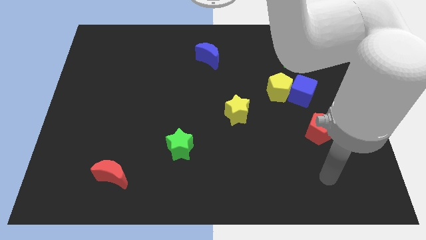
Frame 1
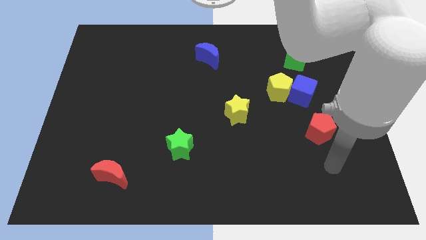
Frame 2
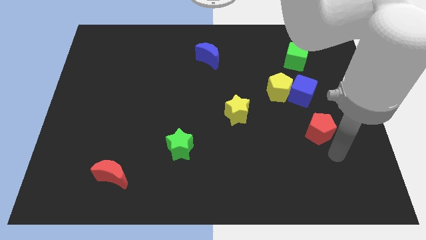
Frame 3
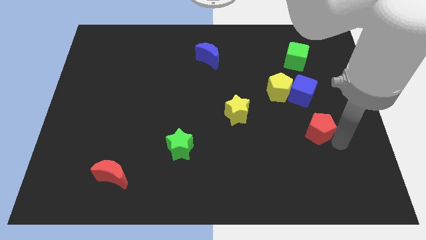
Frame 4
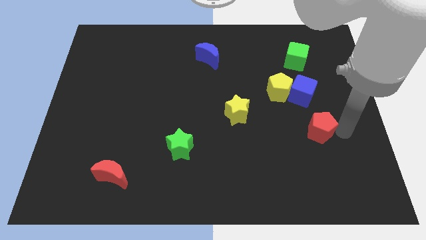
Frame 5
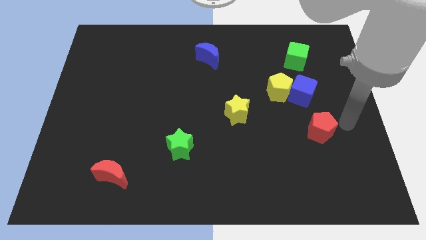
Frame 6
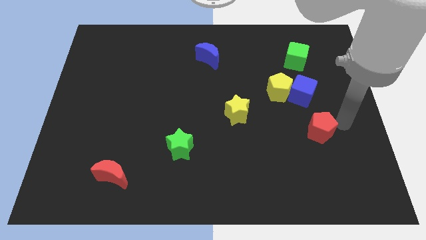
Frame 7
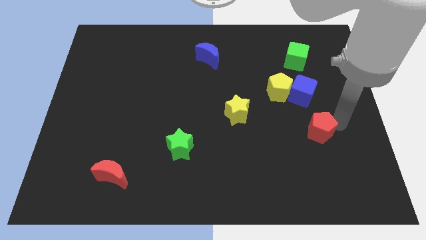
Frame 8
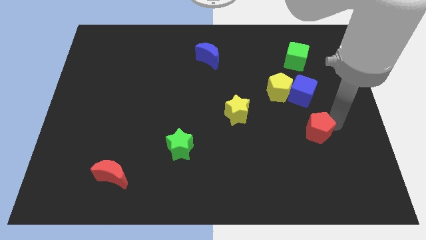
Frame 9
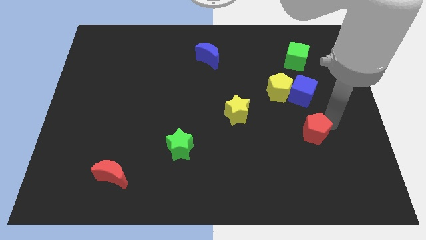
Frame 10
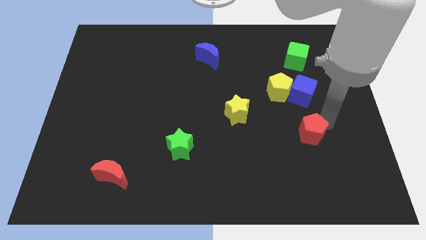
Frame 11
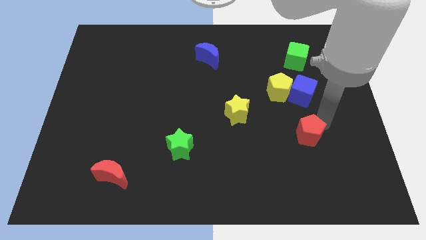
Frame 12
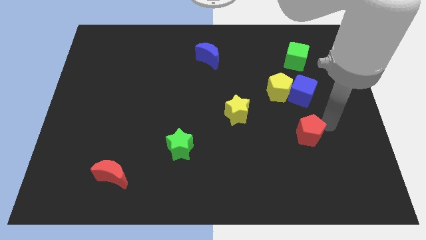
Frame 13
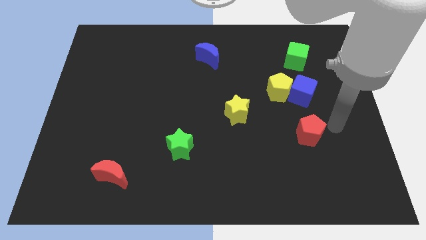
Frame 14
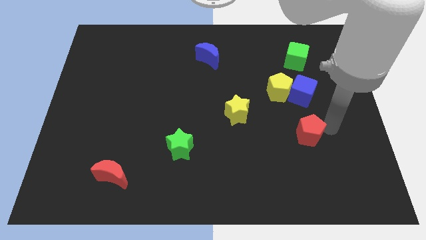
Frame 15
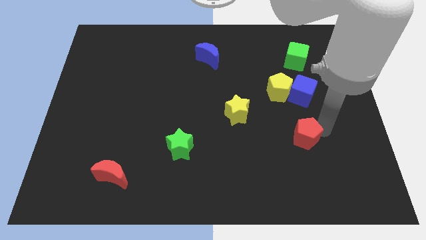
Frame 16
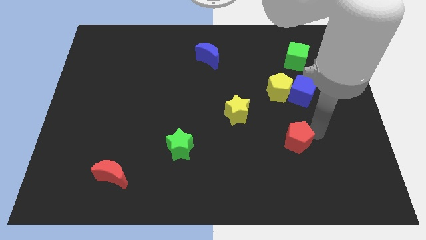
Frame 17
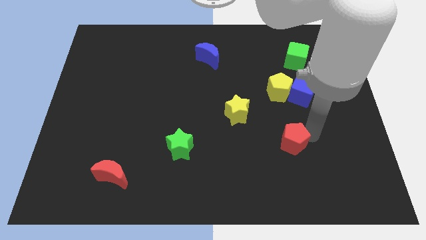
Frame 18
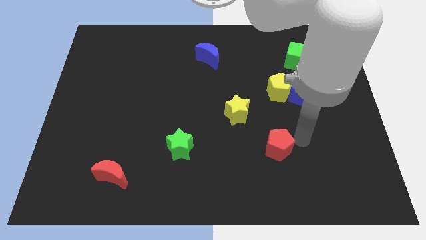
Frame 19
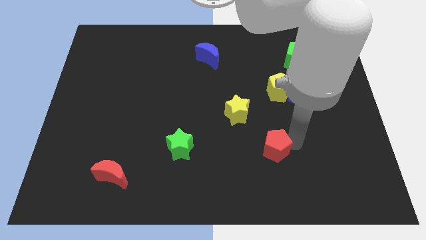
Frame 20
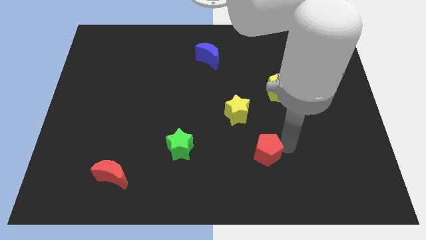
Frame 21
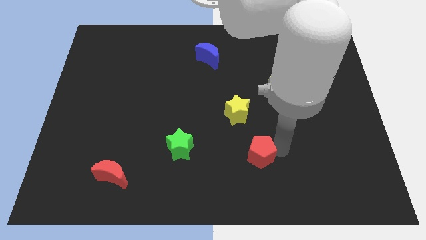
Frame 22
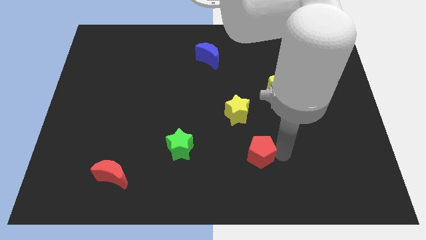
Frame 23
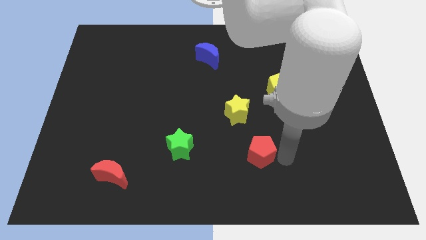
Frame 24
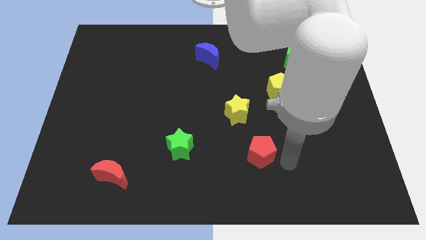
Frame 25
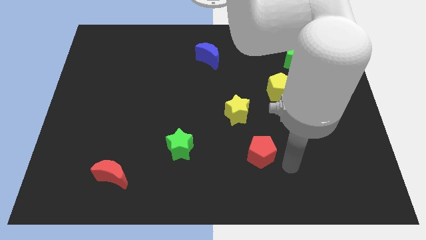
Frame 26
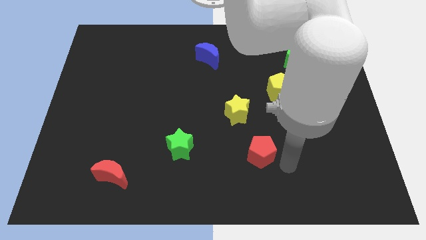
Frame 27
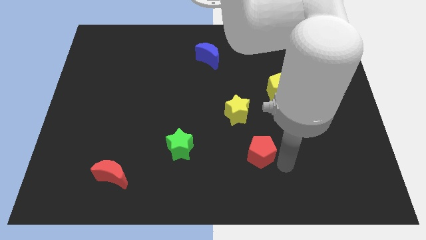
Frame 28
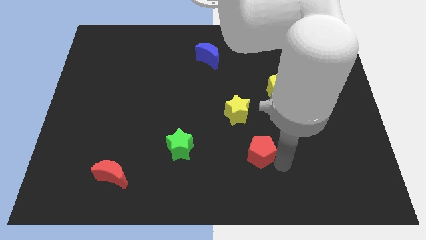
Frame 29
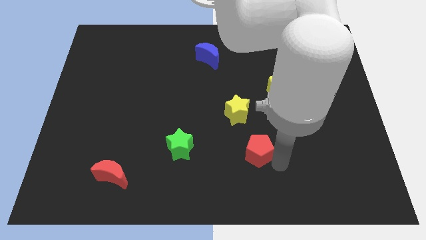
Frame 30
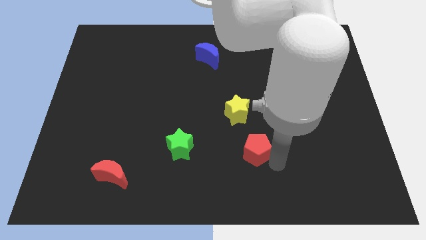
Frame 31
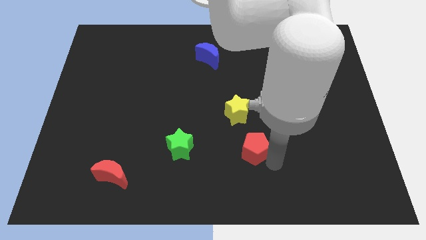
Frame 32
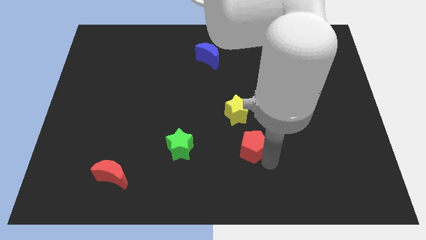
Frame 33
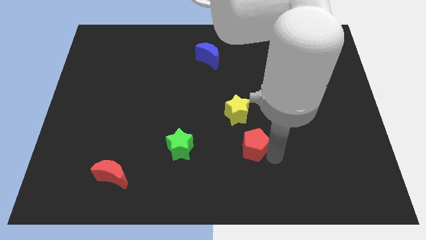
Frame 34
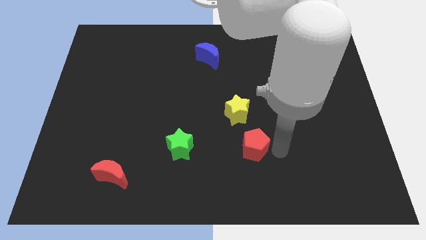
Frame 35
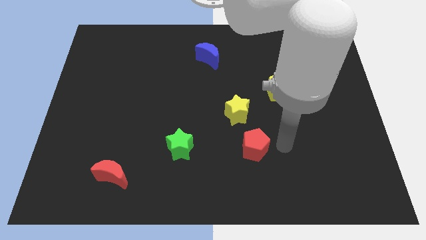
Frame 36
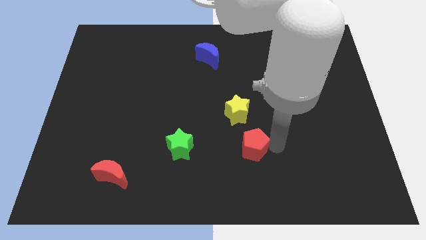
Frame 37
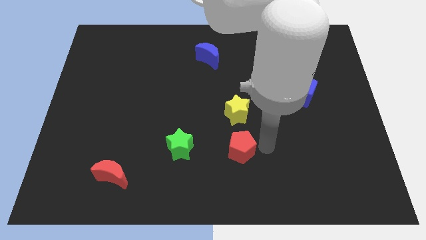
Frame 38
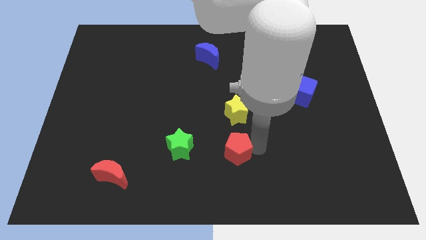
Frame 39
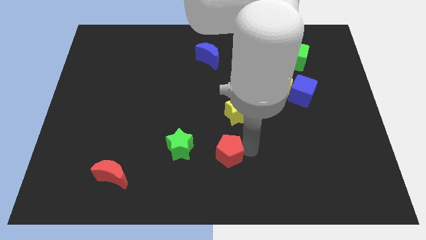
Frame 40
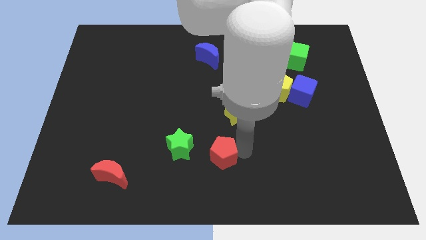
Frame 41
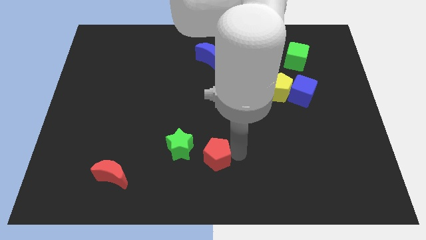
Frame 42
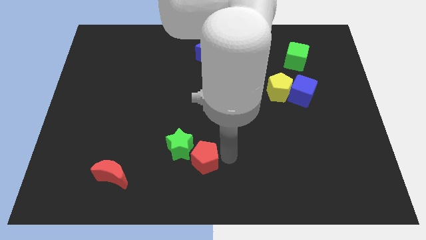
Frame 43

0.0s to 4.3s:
push the red pentagon close to the green star

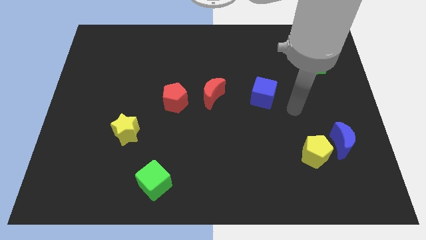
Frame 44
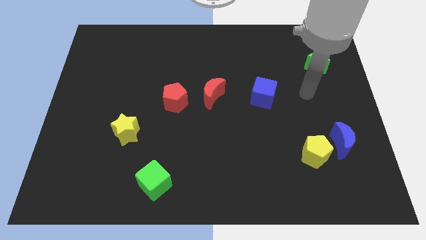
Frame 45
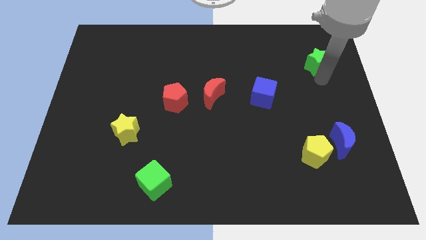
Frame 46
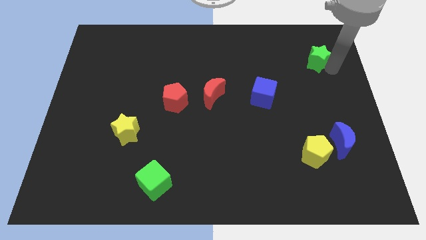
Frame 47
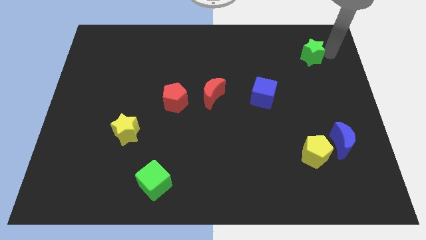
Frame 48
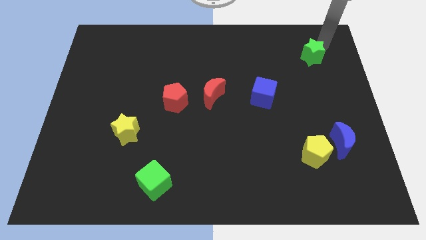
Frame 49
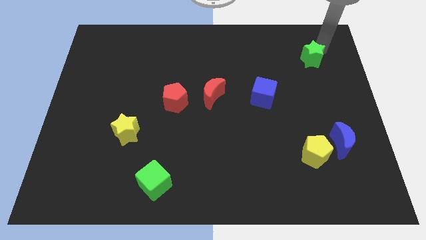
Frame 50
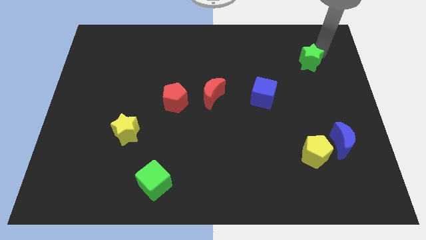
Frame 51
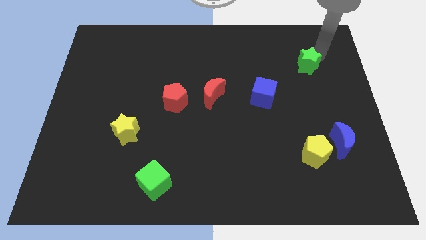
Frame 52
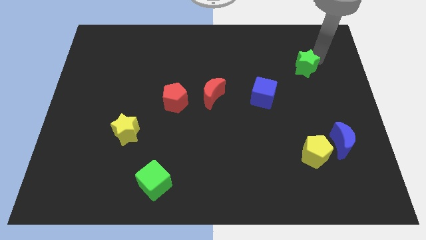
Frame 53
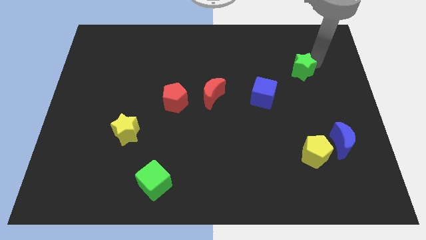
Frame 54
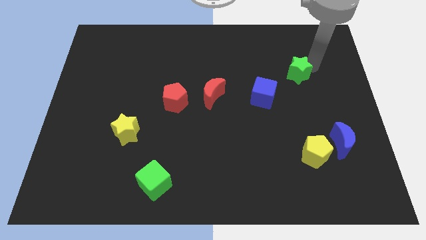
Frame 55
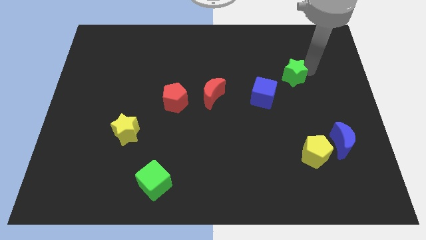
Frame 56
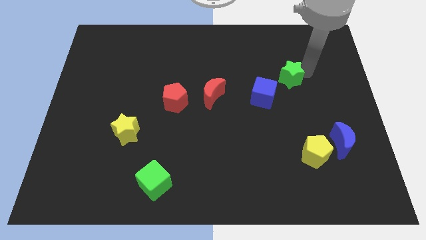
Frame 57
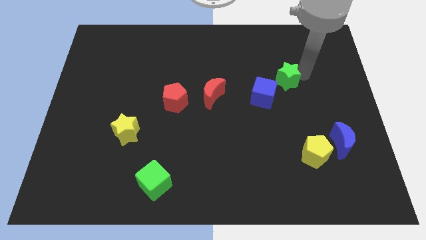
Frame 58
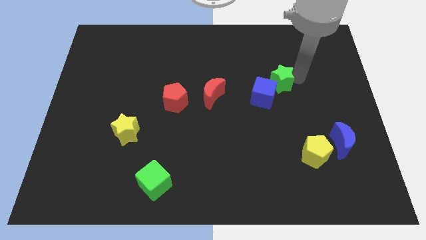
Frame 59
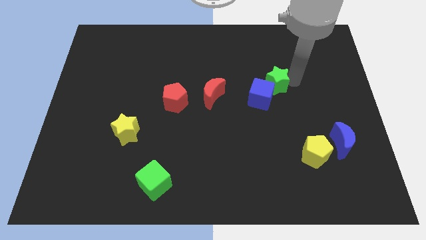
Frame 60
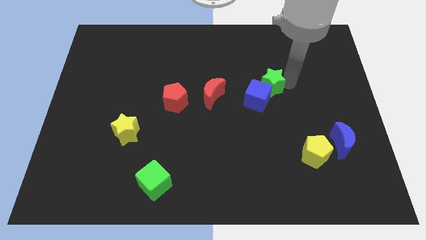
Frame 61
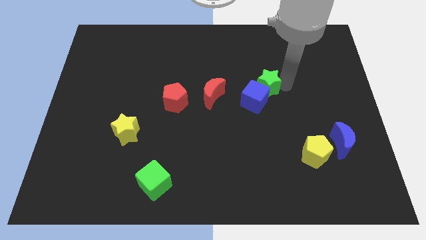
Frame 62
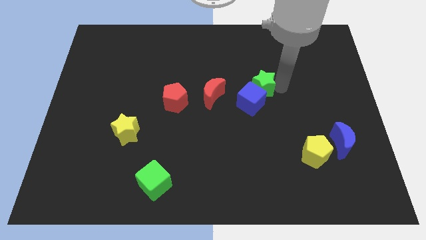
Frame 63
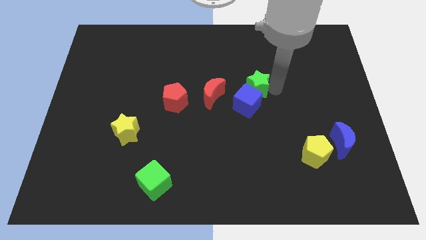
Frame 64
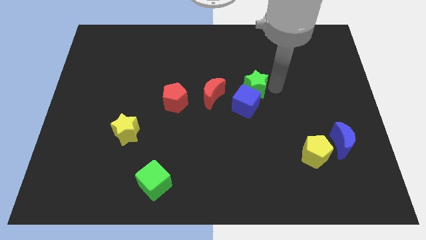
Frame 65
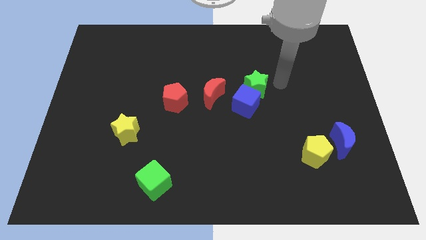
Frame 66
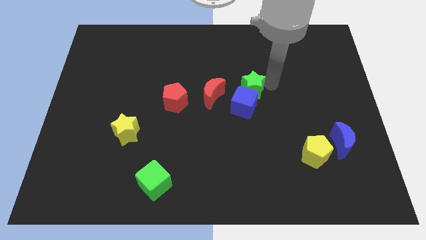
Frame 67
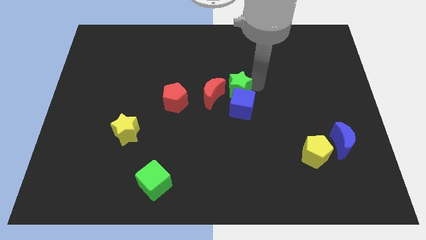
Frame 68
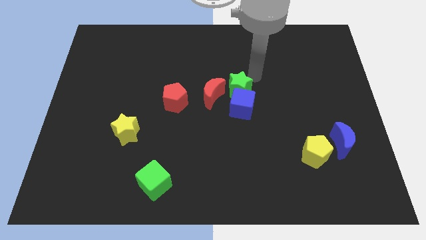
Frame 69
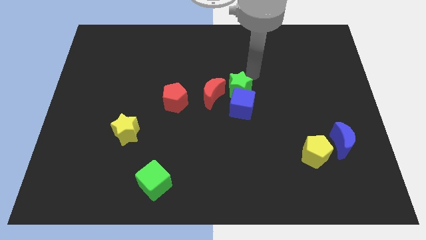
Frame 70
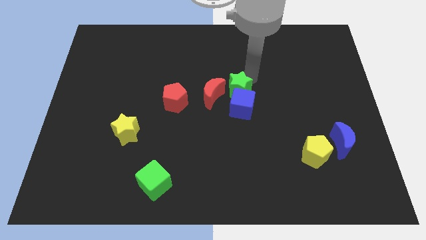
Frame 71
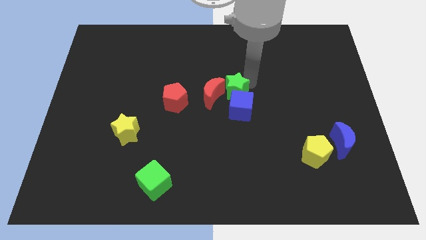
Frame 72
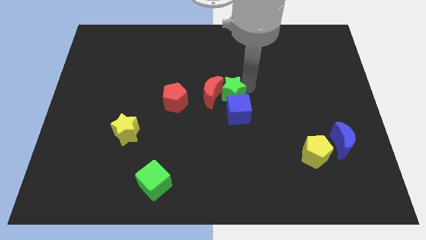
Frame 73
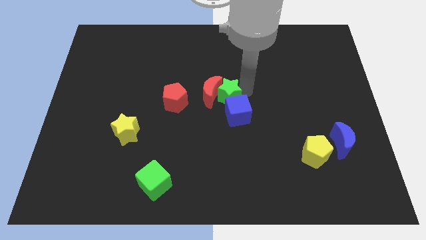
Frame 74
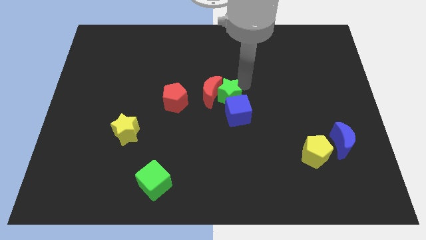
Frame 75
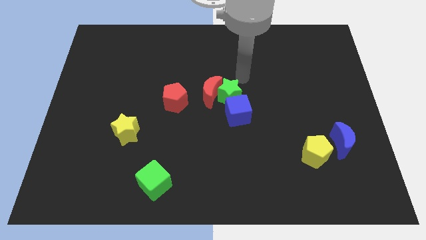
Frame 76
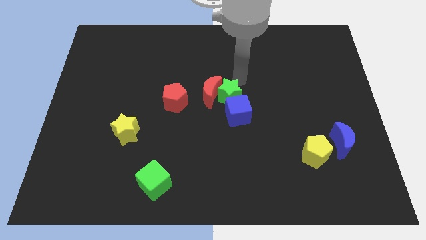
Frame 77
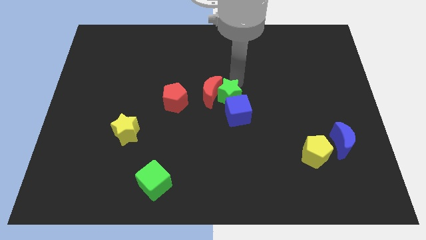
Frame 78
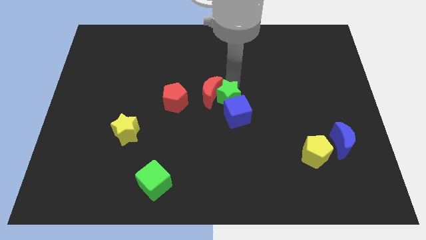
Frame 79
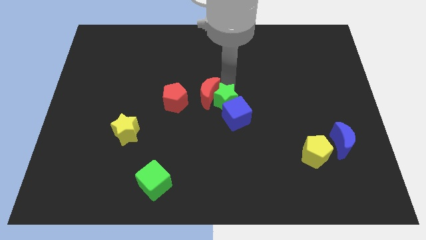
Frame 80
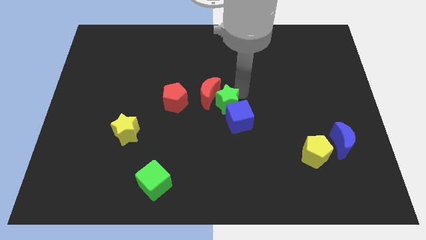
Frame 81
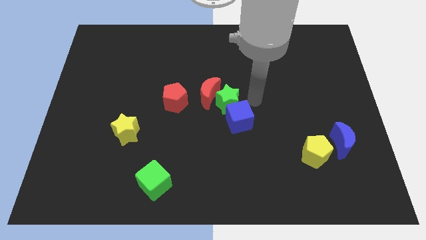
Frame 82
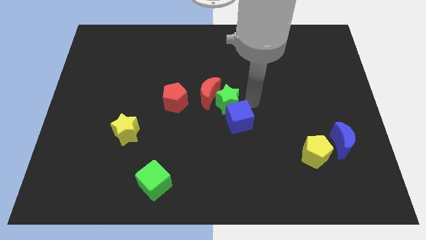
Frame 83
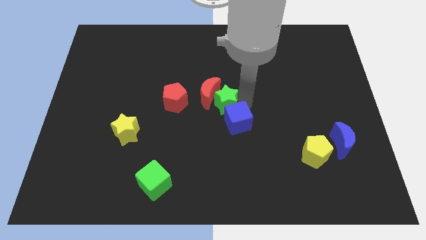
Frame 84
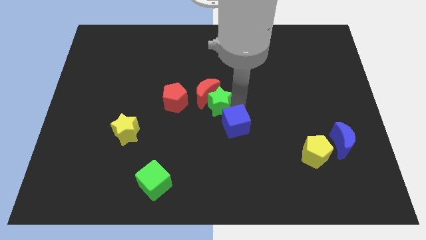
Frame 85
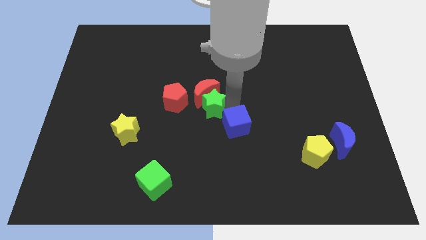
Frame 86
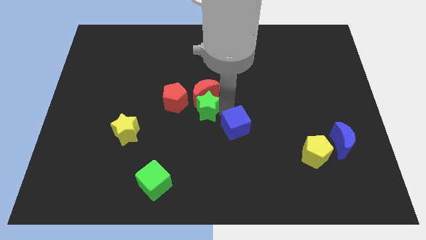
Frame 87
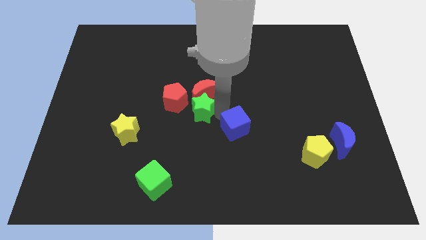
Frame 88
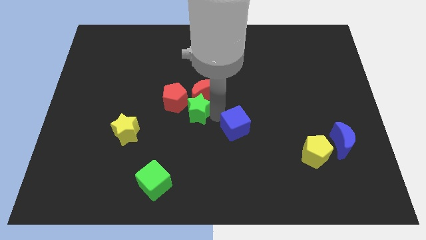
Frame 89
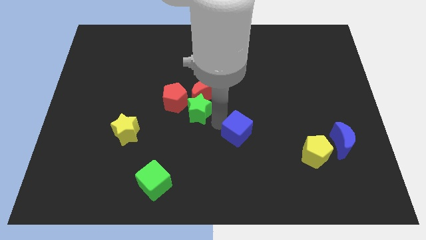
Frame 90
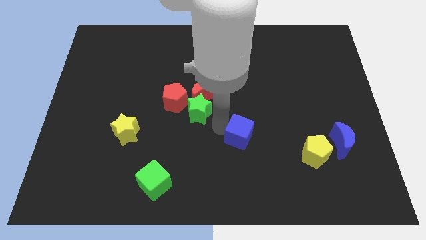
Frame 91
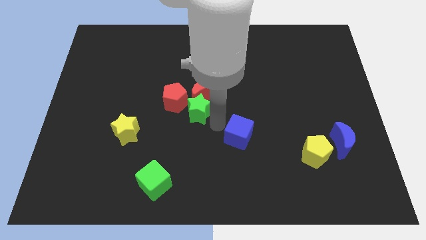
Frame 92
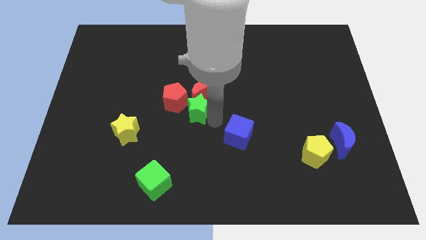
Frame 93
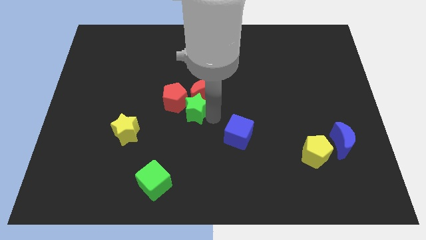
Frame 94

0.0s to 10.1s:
move the green star close to the red pentagon
